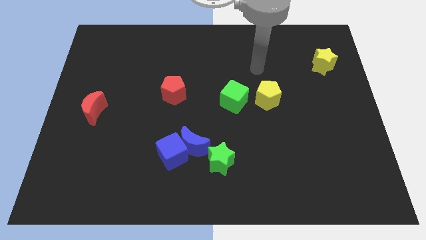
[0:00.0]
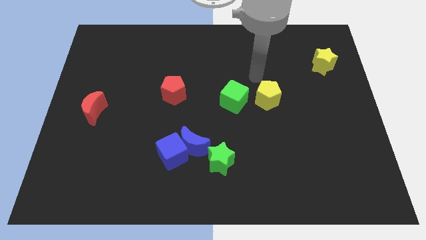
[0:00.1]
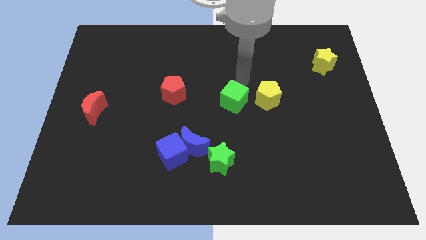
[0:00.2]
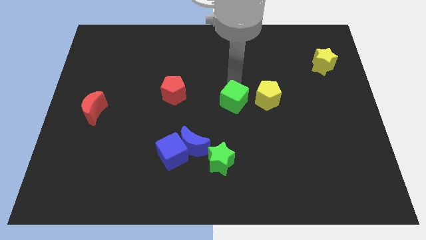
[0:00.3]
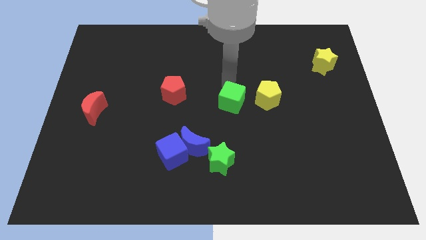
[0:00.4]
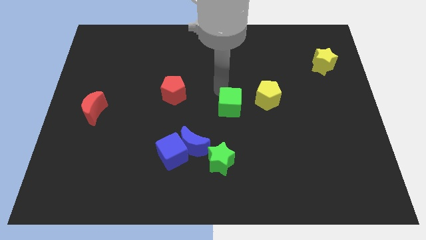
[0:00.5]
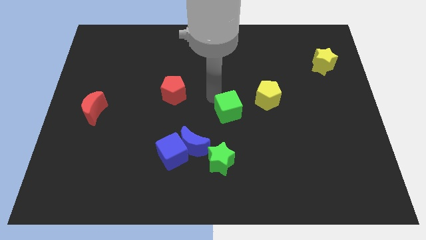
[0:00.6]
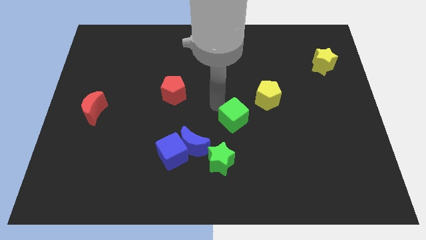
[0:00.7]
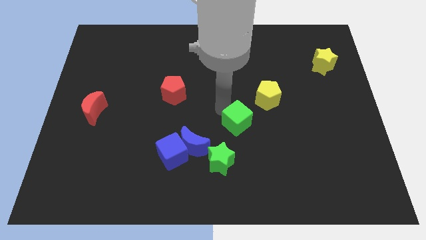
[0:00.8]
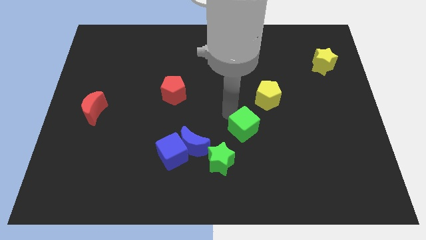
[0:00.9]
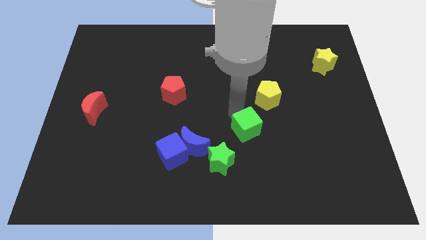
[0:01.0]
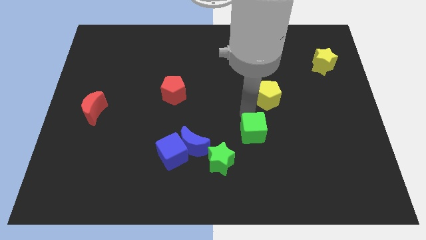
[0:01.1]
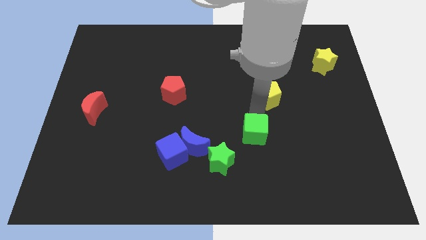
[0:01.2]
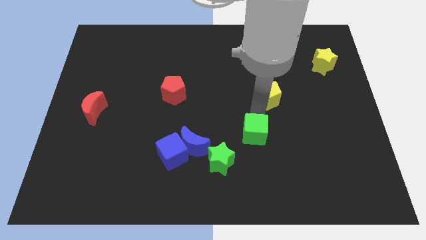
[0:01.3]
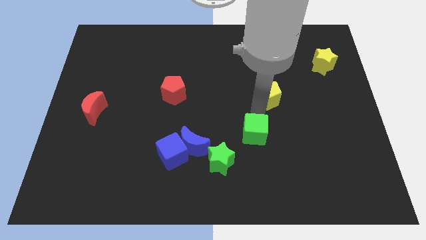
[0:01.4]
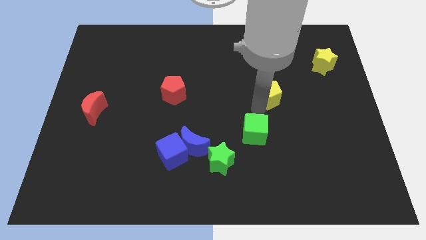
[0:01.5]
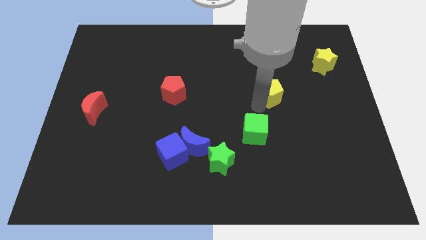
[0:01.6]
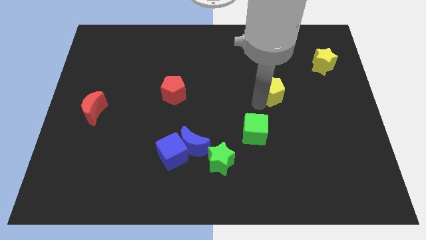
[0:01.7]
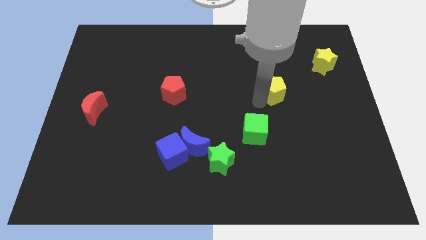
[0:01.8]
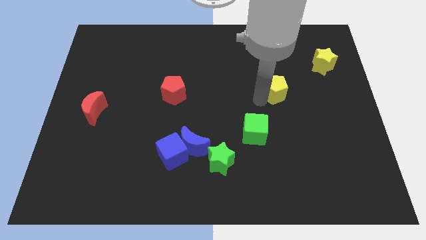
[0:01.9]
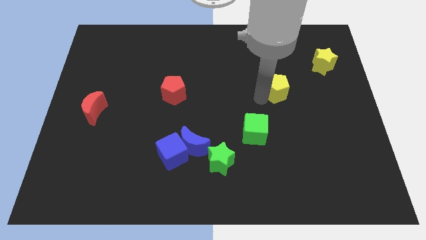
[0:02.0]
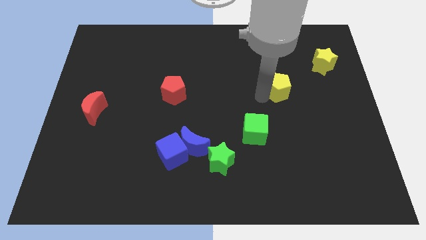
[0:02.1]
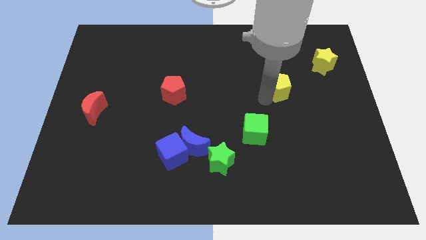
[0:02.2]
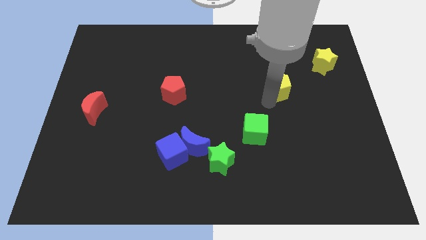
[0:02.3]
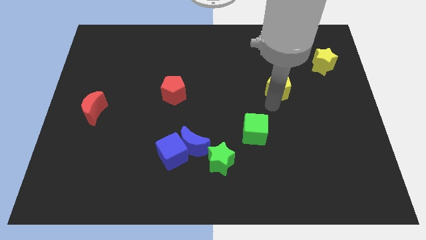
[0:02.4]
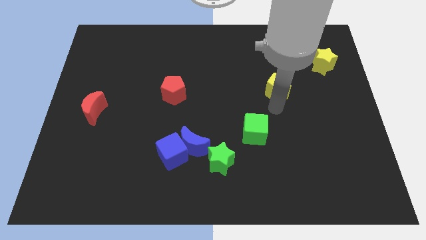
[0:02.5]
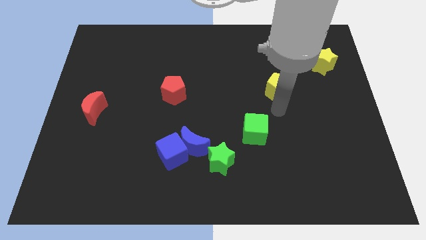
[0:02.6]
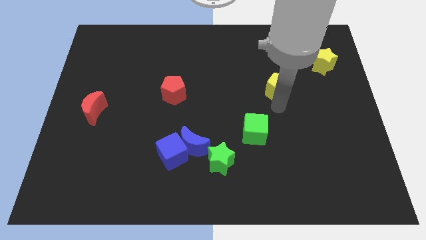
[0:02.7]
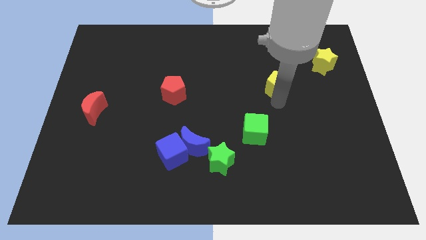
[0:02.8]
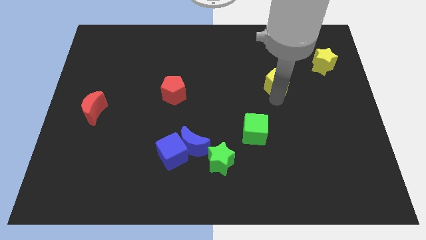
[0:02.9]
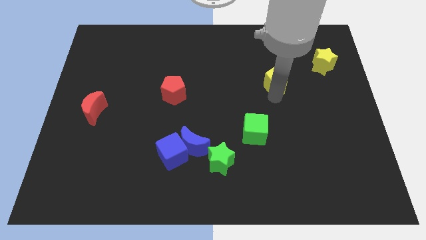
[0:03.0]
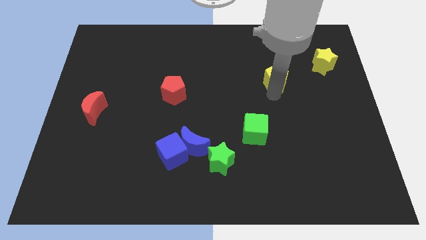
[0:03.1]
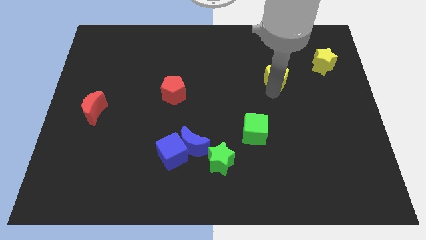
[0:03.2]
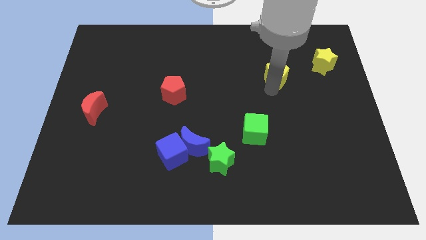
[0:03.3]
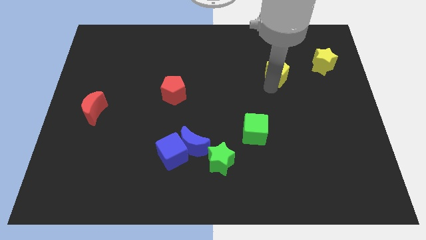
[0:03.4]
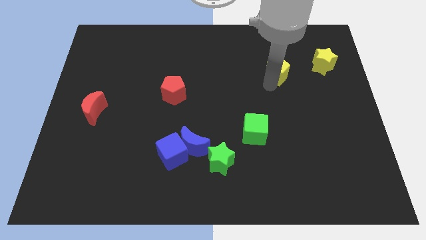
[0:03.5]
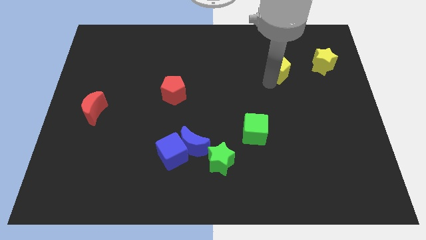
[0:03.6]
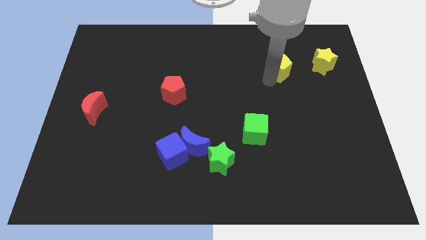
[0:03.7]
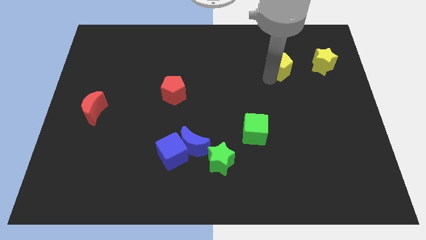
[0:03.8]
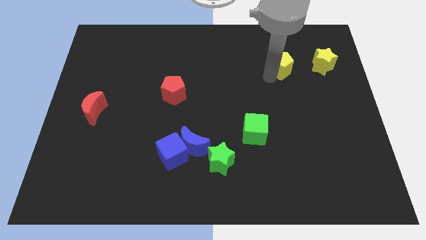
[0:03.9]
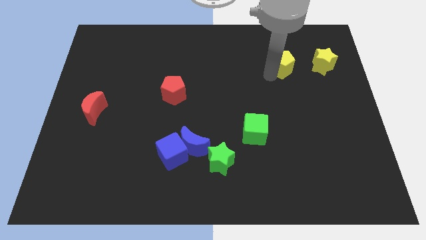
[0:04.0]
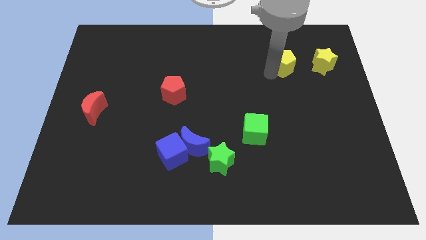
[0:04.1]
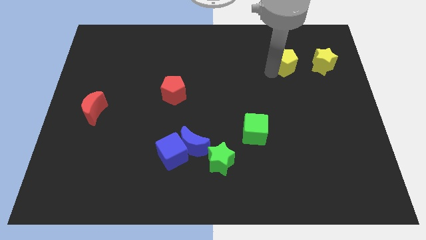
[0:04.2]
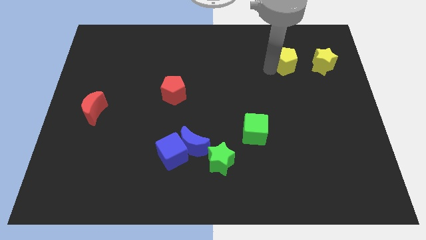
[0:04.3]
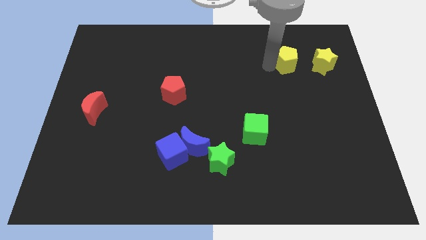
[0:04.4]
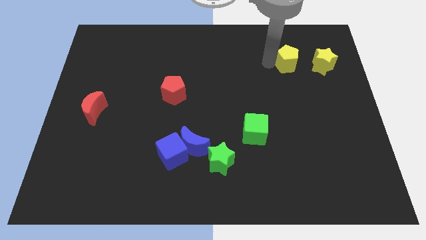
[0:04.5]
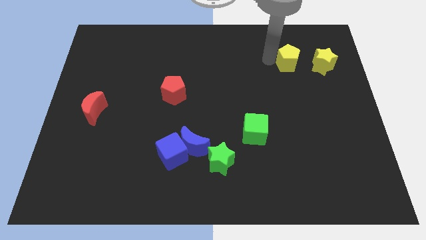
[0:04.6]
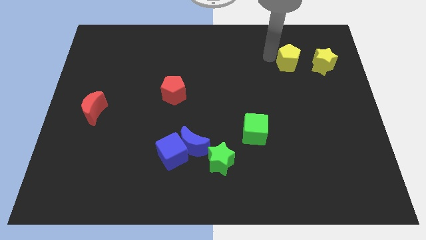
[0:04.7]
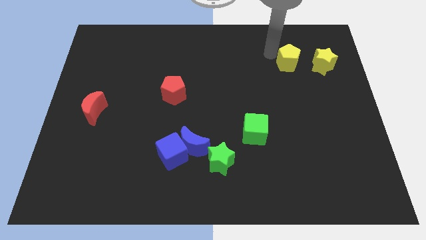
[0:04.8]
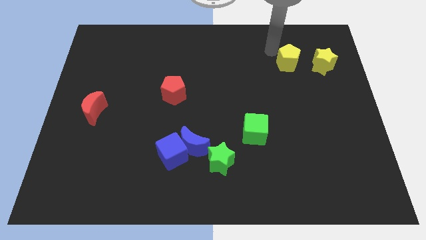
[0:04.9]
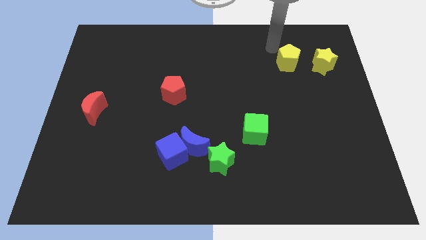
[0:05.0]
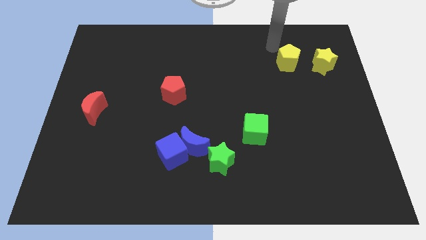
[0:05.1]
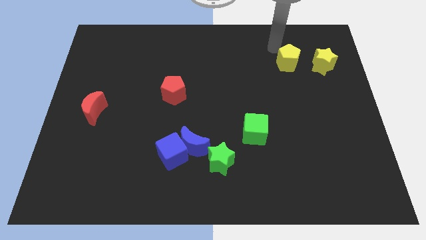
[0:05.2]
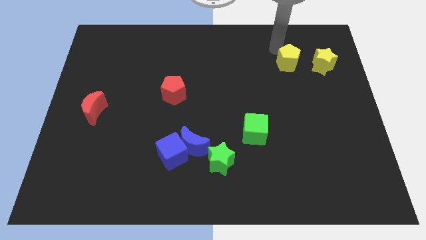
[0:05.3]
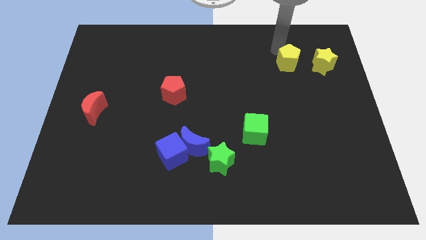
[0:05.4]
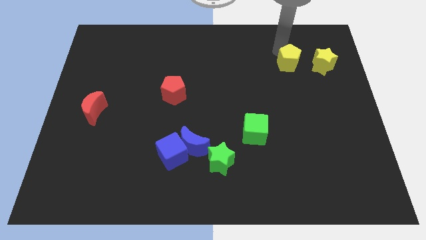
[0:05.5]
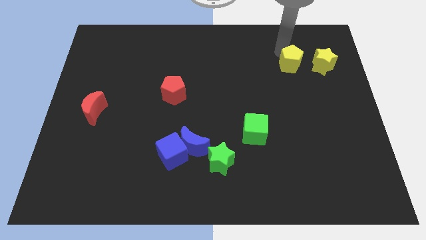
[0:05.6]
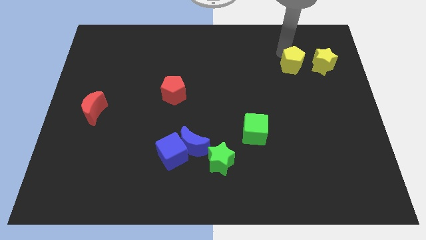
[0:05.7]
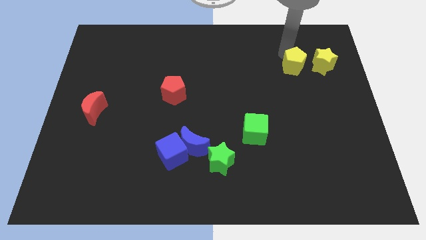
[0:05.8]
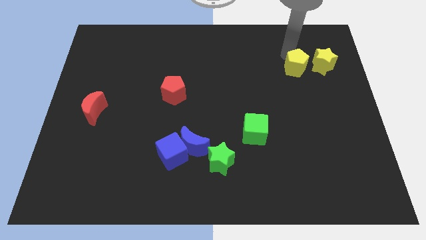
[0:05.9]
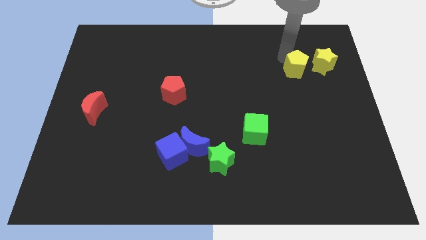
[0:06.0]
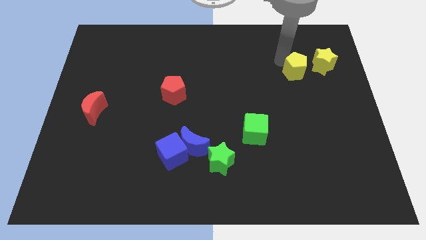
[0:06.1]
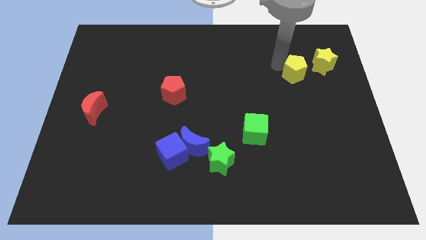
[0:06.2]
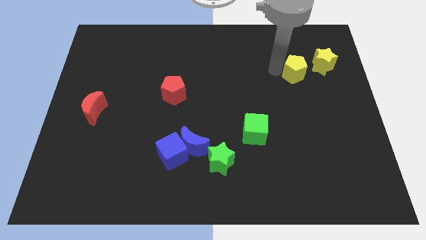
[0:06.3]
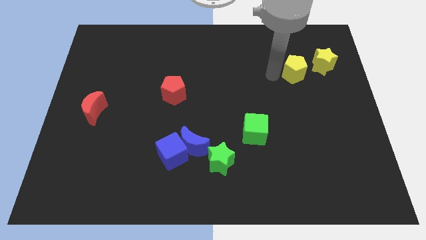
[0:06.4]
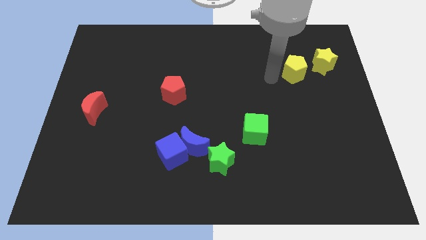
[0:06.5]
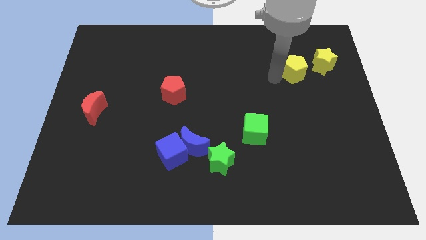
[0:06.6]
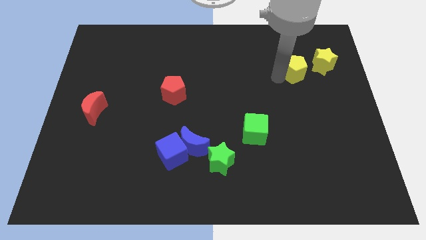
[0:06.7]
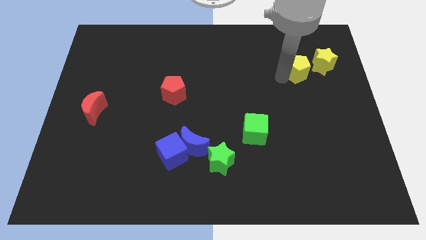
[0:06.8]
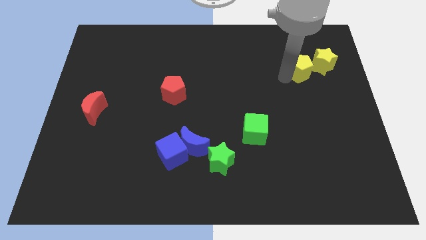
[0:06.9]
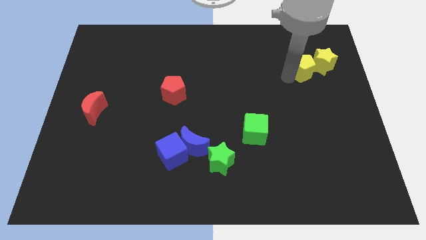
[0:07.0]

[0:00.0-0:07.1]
move the yellow pentagon towards the yellow star
